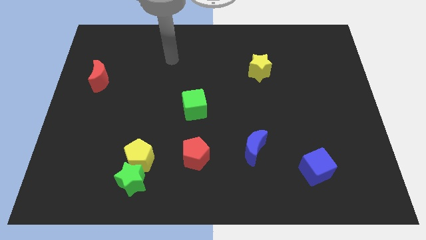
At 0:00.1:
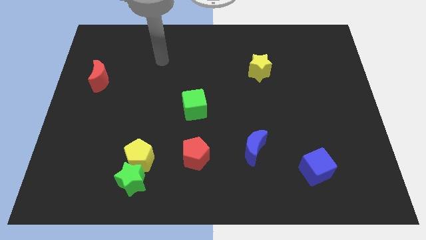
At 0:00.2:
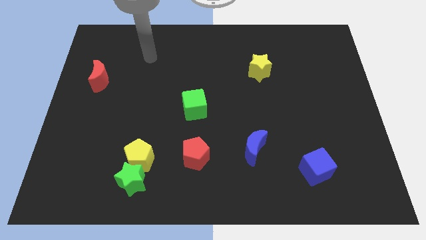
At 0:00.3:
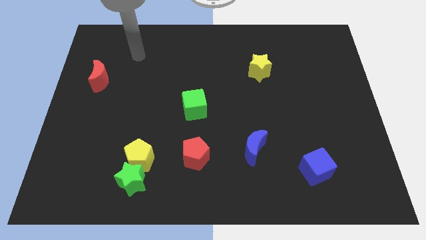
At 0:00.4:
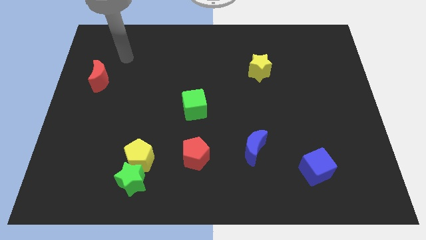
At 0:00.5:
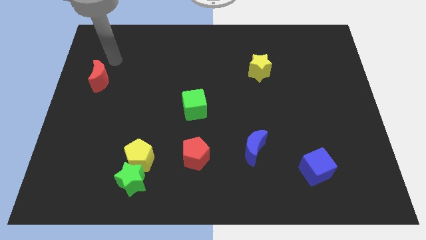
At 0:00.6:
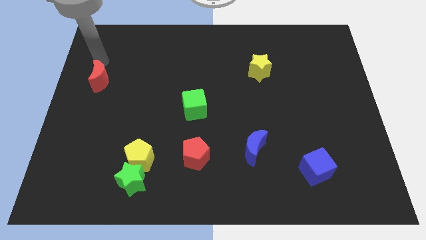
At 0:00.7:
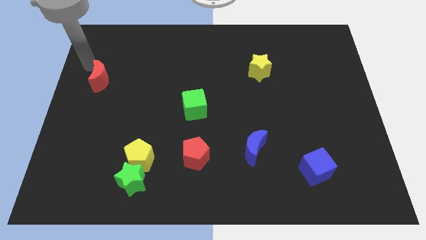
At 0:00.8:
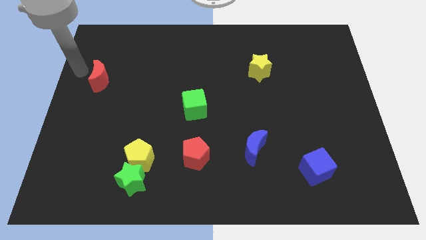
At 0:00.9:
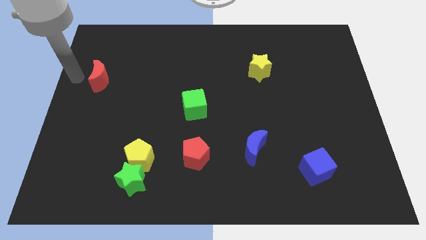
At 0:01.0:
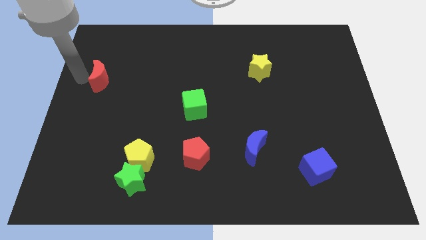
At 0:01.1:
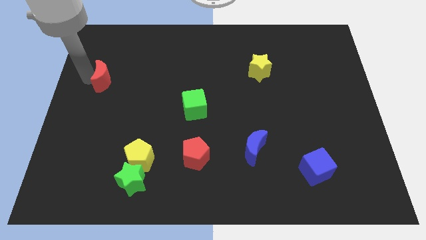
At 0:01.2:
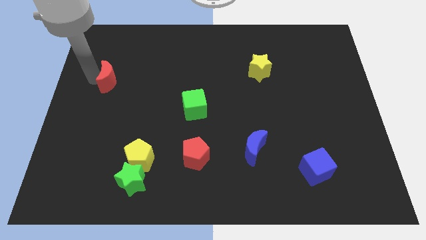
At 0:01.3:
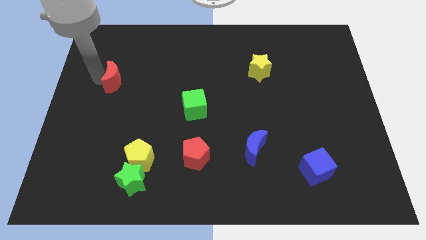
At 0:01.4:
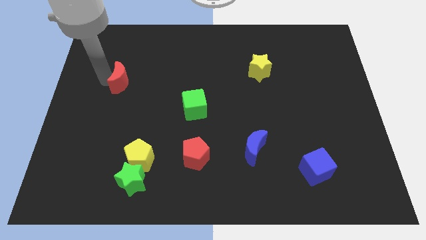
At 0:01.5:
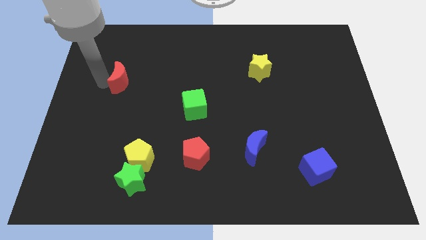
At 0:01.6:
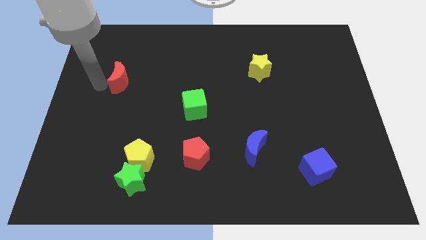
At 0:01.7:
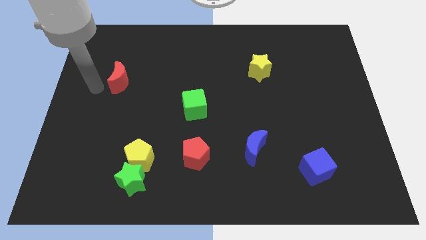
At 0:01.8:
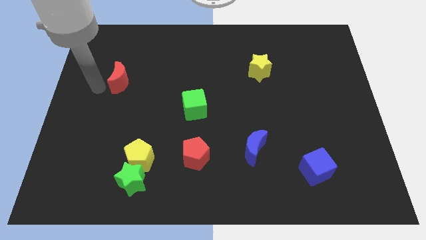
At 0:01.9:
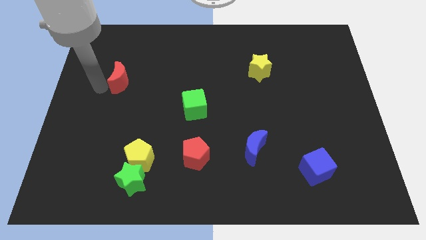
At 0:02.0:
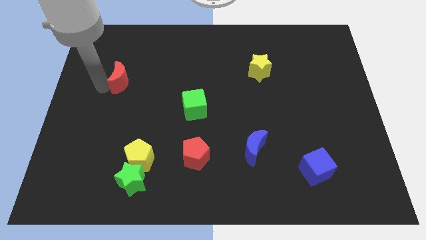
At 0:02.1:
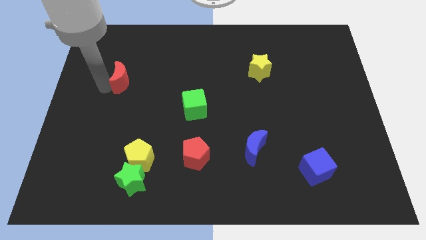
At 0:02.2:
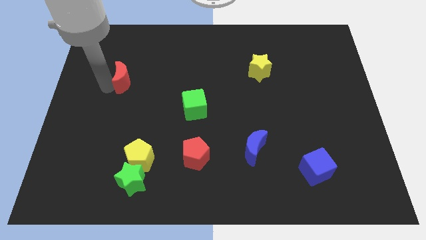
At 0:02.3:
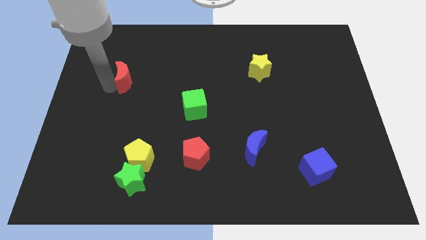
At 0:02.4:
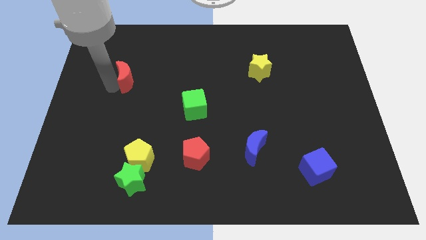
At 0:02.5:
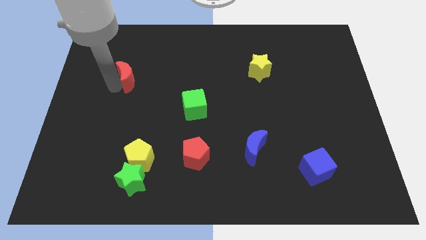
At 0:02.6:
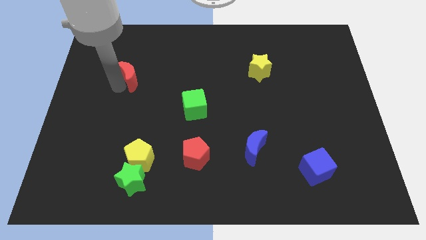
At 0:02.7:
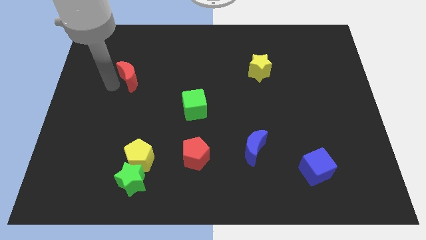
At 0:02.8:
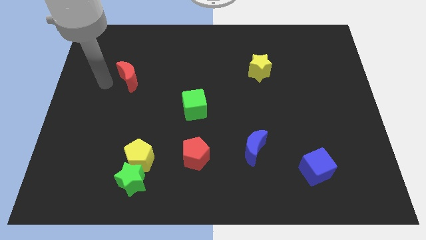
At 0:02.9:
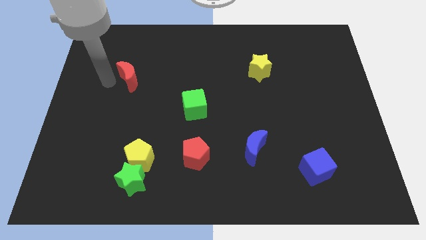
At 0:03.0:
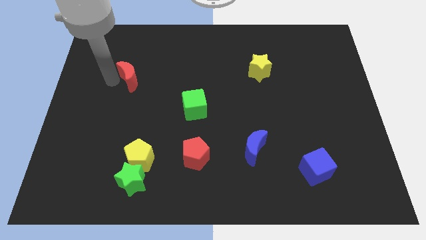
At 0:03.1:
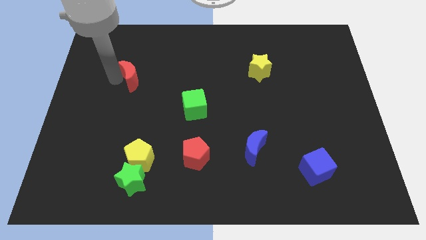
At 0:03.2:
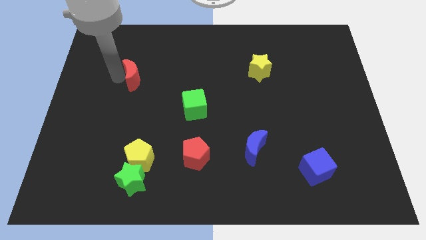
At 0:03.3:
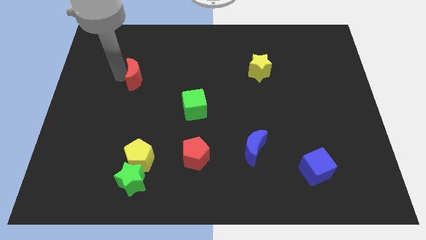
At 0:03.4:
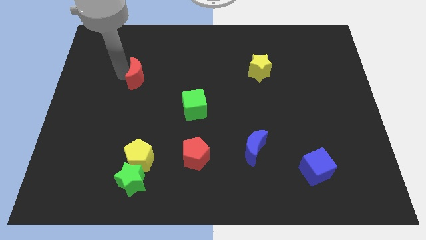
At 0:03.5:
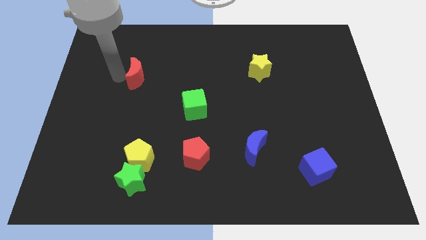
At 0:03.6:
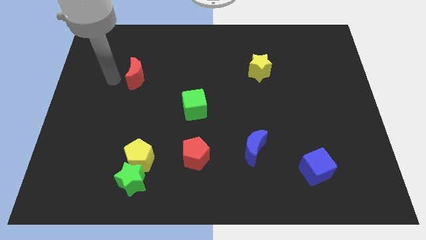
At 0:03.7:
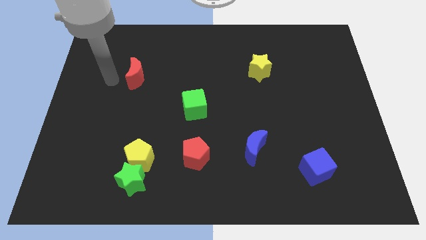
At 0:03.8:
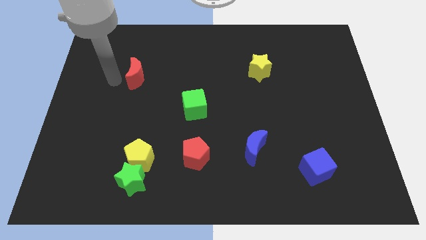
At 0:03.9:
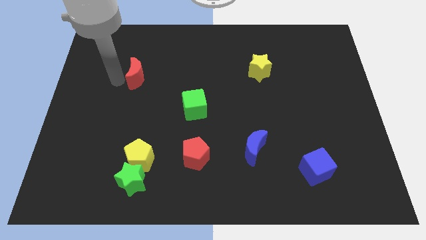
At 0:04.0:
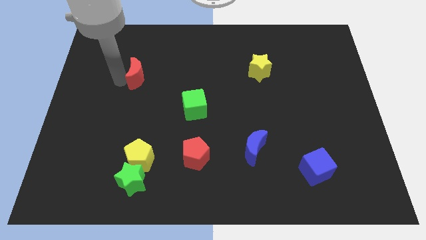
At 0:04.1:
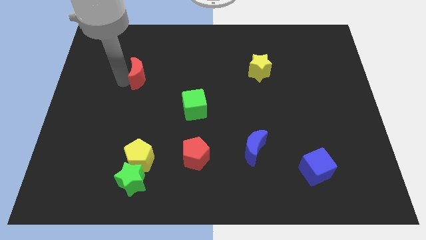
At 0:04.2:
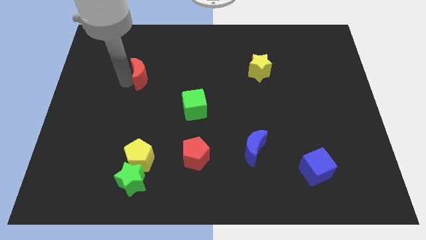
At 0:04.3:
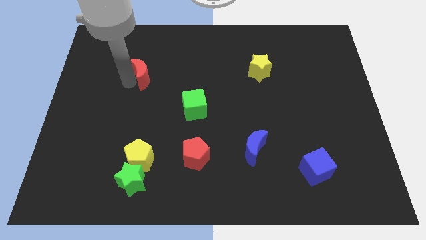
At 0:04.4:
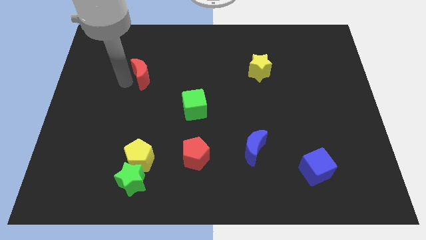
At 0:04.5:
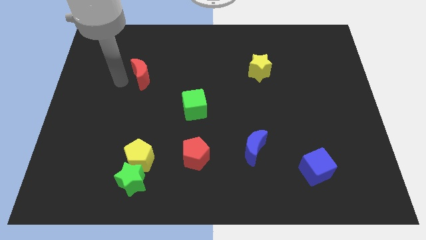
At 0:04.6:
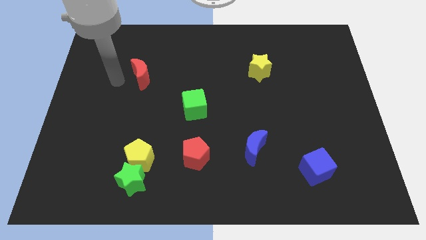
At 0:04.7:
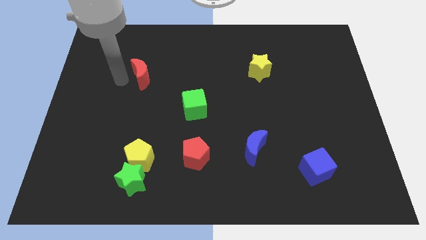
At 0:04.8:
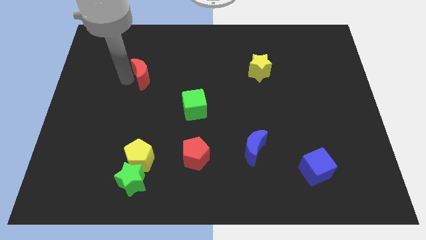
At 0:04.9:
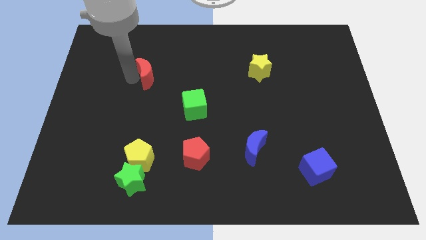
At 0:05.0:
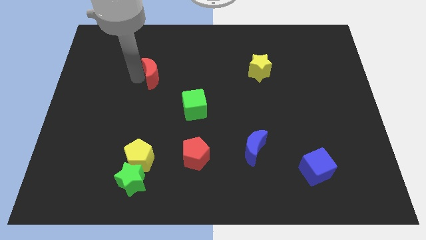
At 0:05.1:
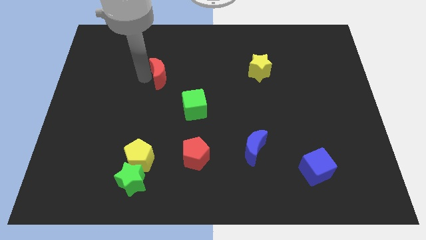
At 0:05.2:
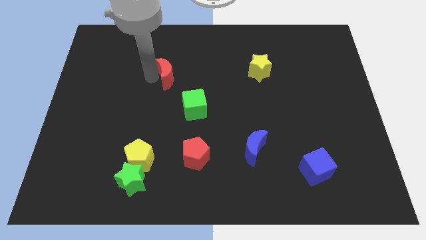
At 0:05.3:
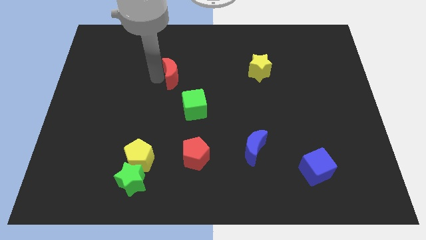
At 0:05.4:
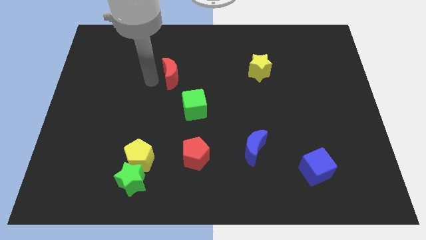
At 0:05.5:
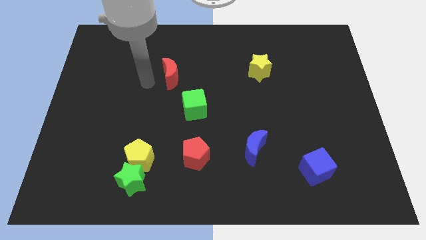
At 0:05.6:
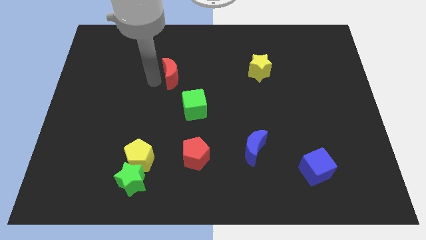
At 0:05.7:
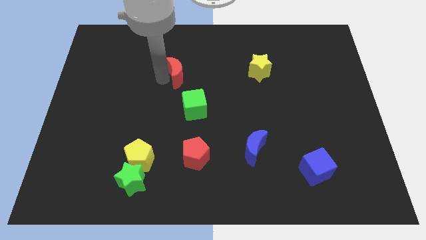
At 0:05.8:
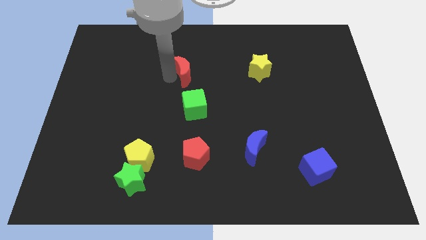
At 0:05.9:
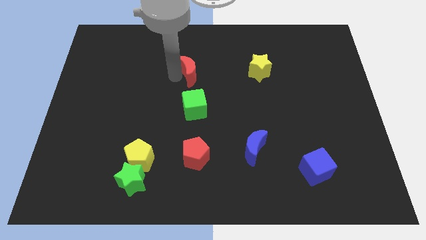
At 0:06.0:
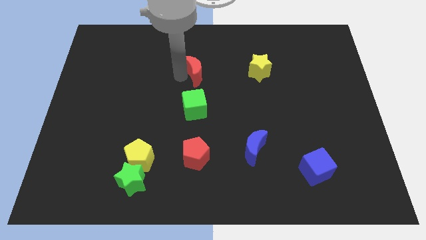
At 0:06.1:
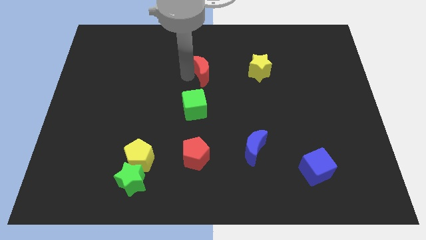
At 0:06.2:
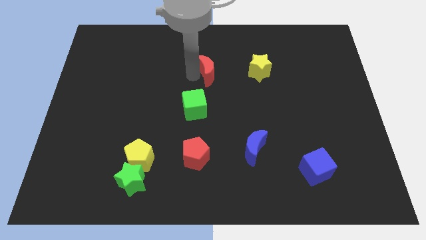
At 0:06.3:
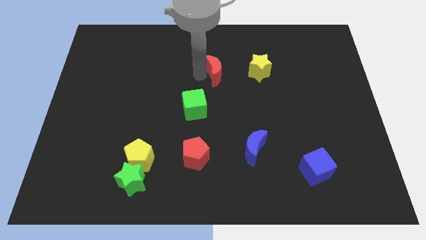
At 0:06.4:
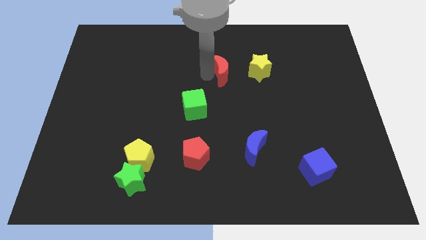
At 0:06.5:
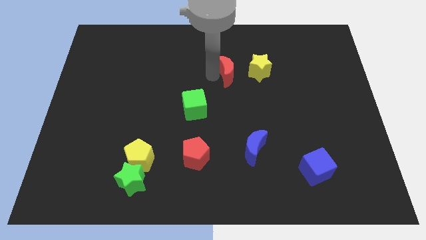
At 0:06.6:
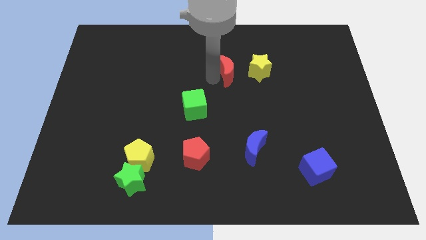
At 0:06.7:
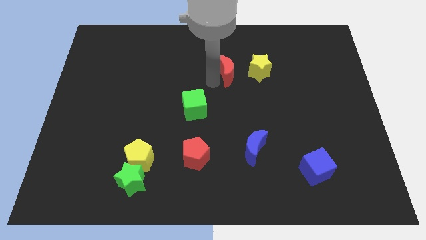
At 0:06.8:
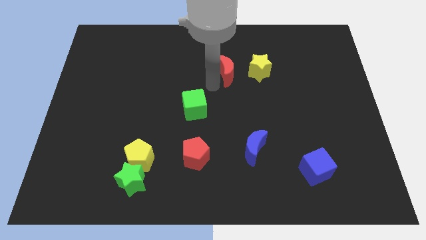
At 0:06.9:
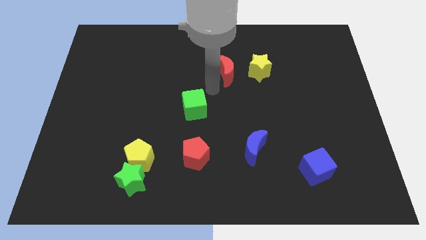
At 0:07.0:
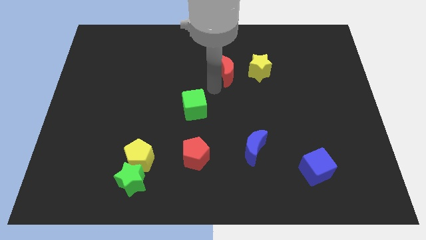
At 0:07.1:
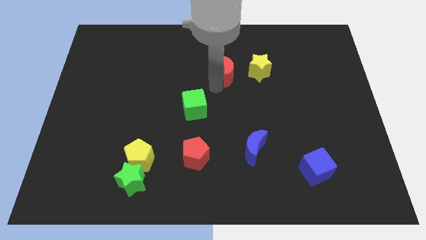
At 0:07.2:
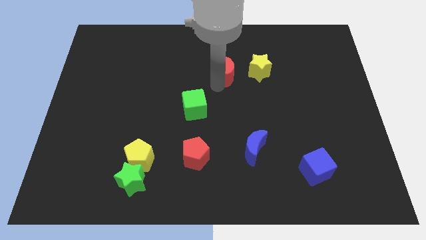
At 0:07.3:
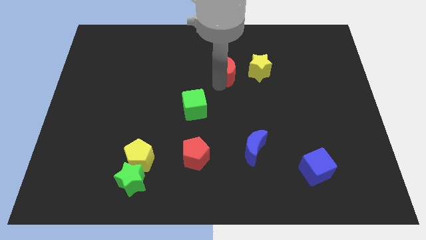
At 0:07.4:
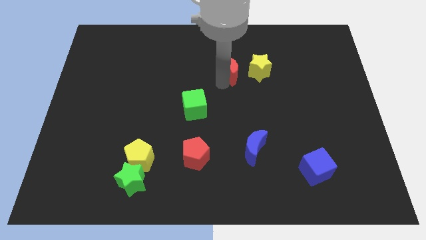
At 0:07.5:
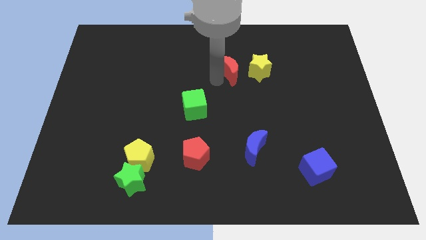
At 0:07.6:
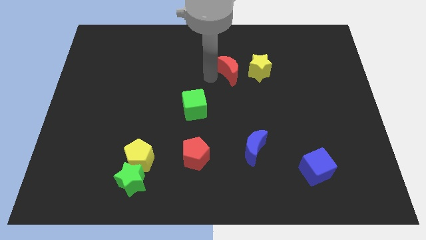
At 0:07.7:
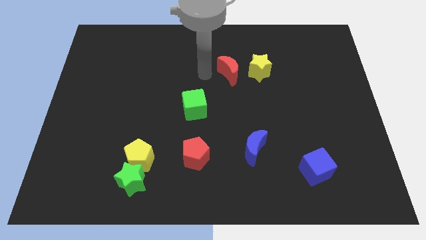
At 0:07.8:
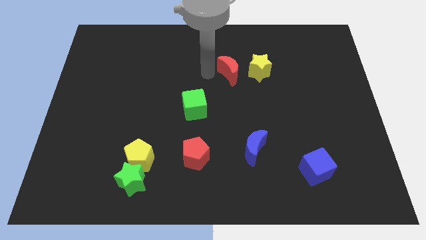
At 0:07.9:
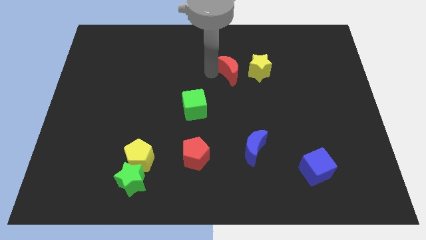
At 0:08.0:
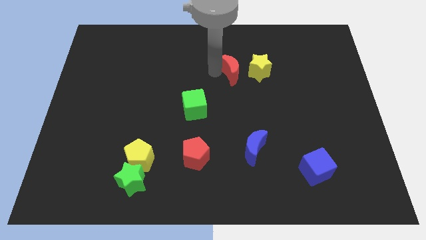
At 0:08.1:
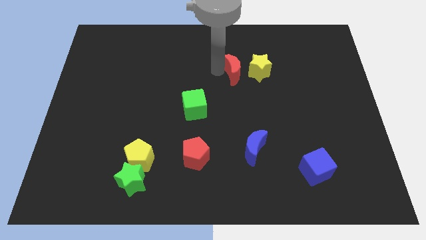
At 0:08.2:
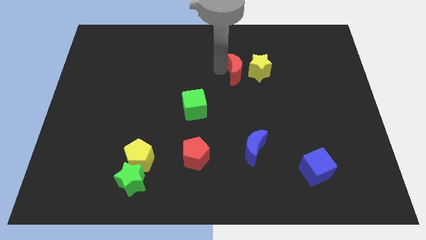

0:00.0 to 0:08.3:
move the red moon towards the yellow star
